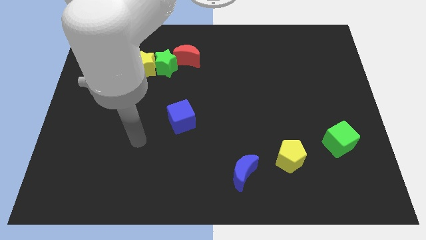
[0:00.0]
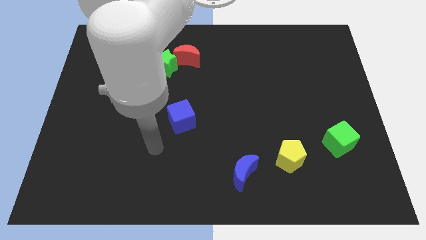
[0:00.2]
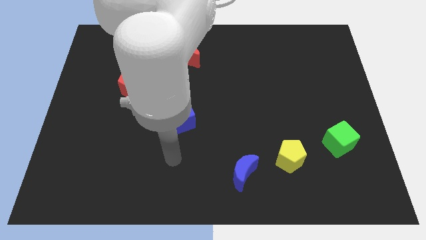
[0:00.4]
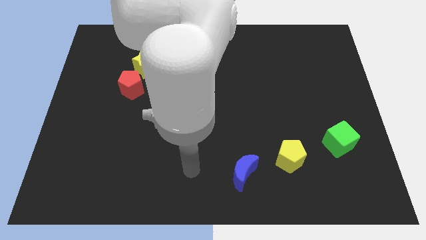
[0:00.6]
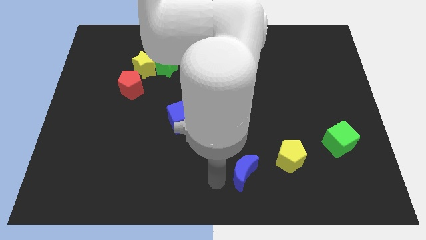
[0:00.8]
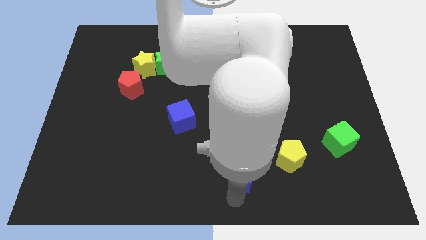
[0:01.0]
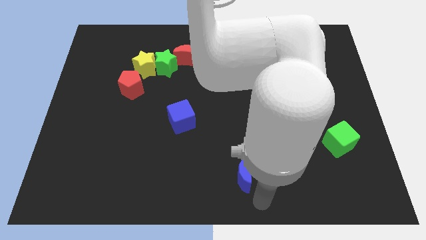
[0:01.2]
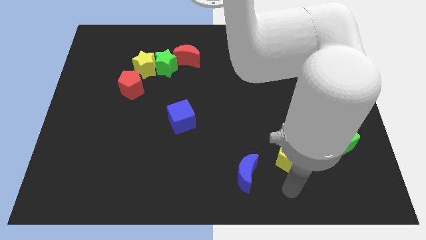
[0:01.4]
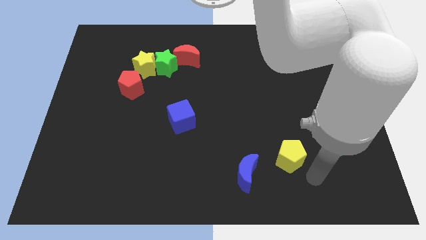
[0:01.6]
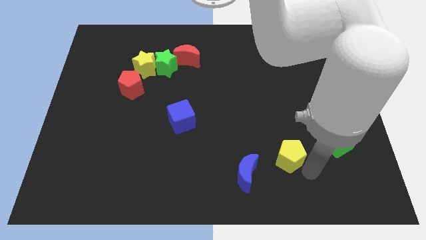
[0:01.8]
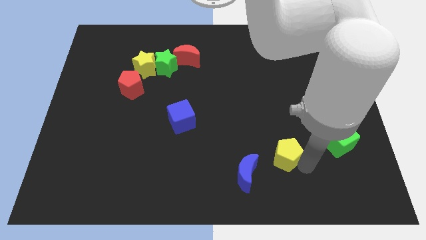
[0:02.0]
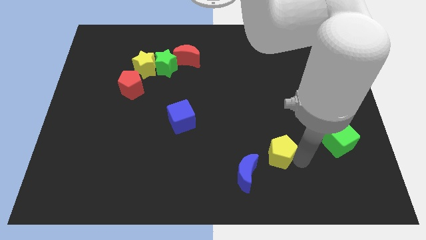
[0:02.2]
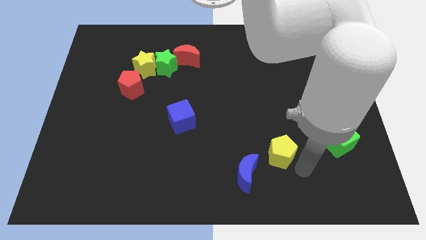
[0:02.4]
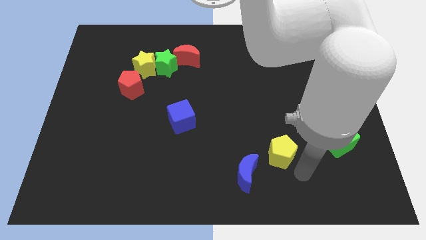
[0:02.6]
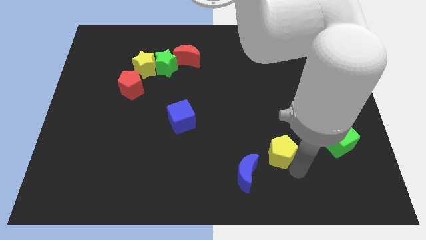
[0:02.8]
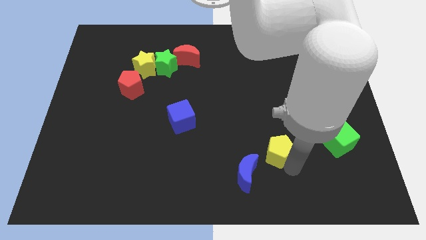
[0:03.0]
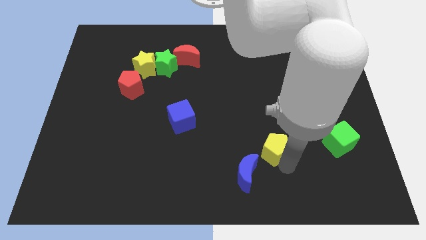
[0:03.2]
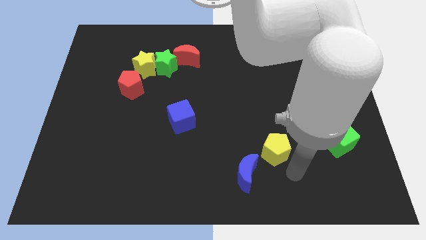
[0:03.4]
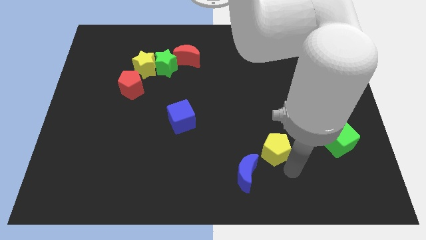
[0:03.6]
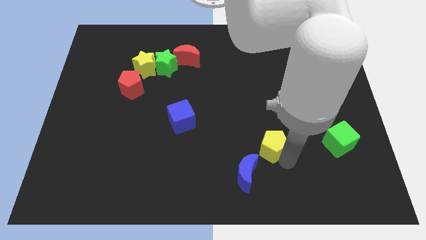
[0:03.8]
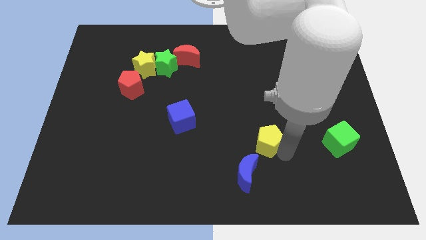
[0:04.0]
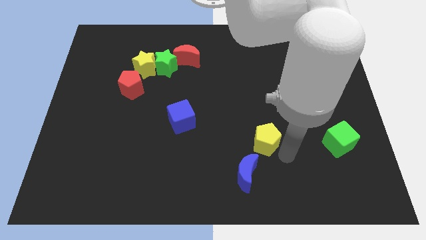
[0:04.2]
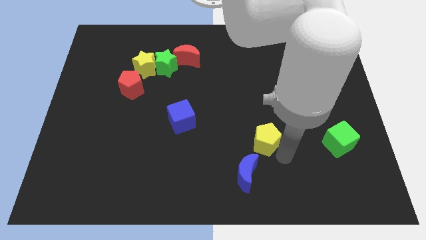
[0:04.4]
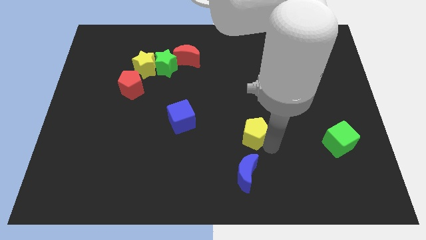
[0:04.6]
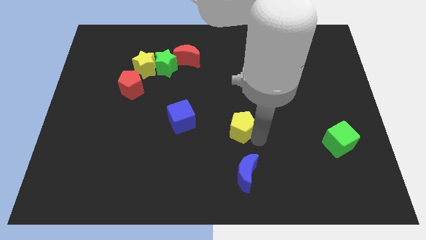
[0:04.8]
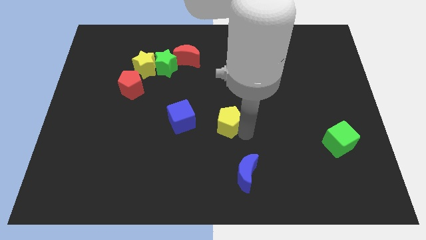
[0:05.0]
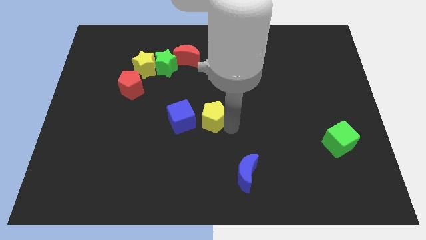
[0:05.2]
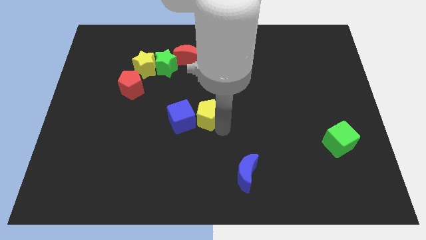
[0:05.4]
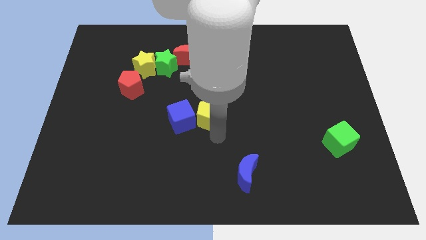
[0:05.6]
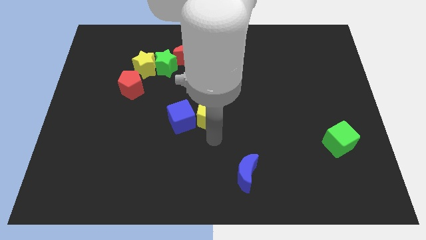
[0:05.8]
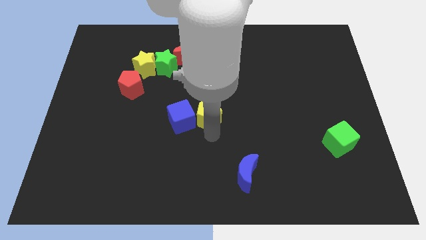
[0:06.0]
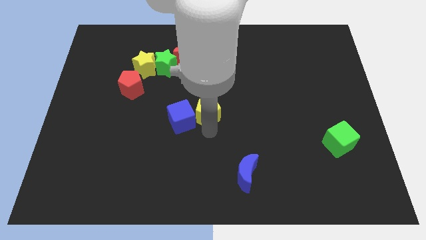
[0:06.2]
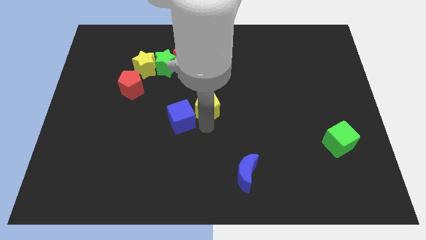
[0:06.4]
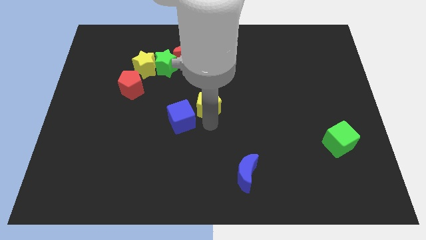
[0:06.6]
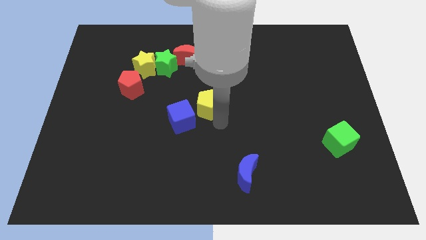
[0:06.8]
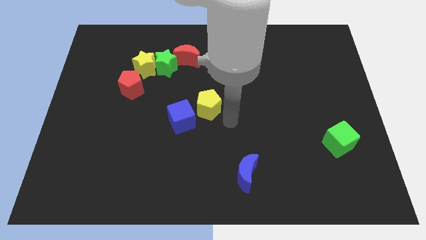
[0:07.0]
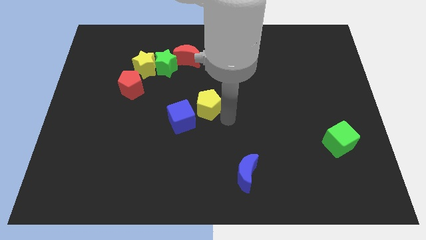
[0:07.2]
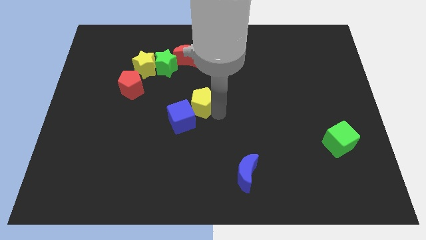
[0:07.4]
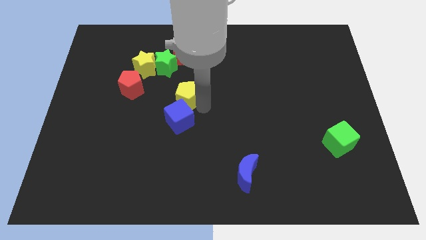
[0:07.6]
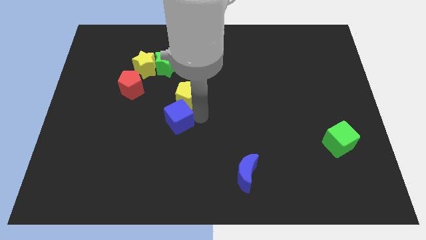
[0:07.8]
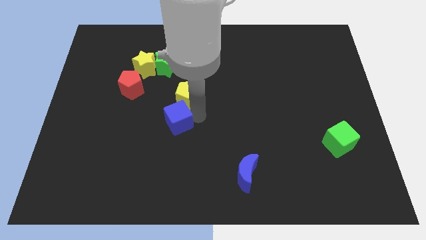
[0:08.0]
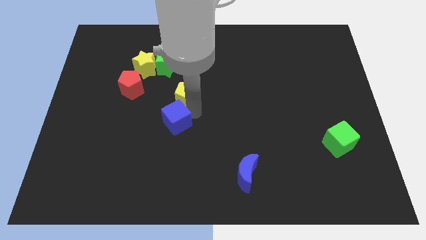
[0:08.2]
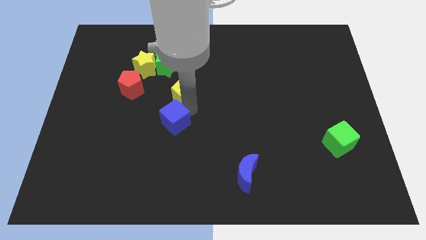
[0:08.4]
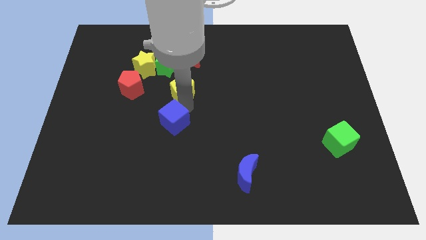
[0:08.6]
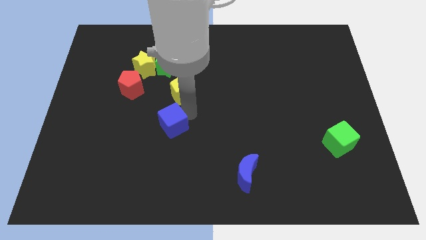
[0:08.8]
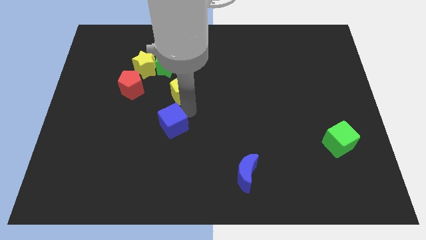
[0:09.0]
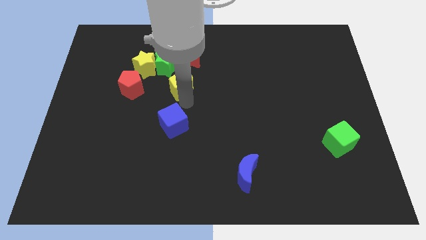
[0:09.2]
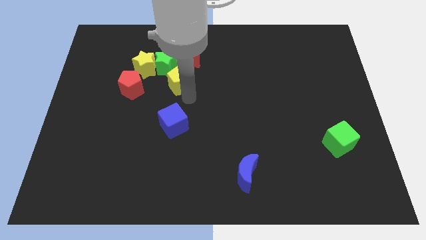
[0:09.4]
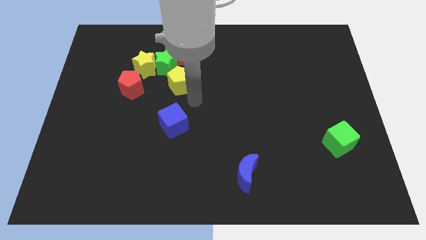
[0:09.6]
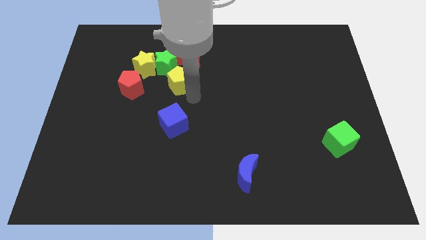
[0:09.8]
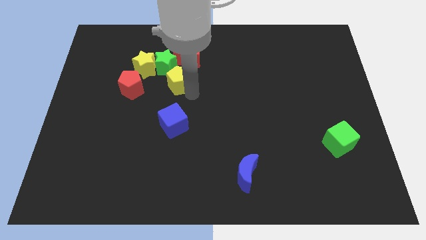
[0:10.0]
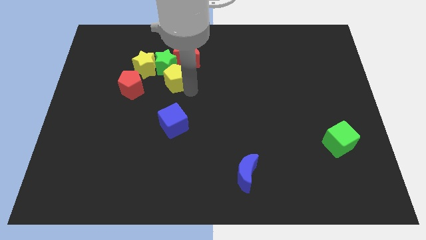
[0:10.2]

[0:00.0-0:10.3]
move the yellow pentagon towards the green star

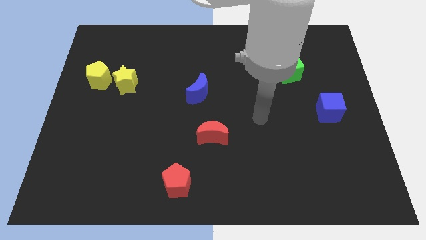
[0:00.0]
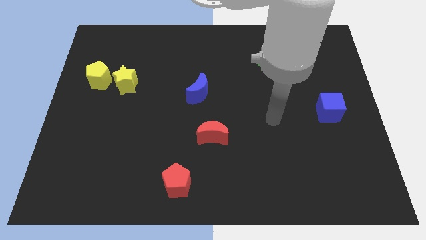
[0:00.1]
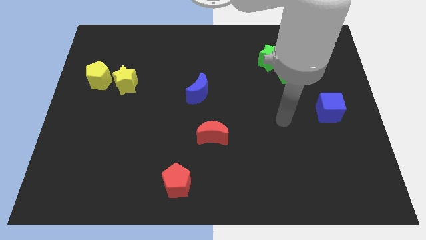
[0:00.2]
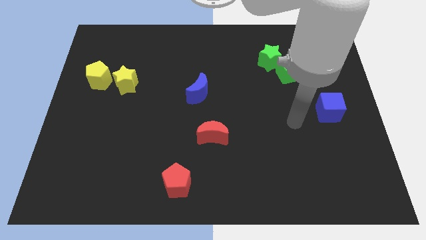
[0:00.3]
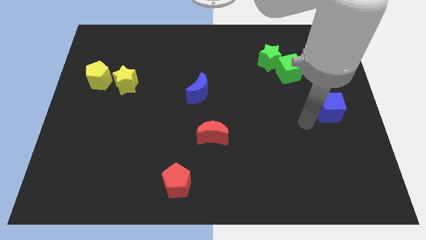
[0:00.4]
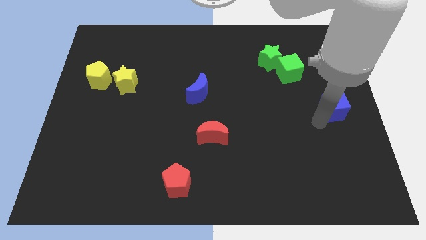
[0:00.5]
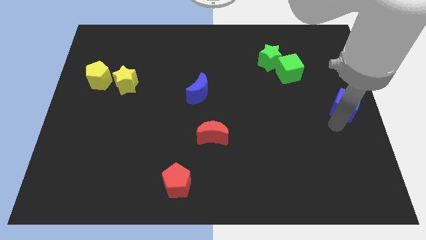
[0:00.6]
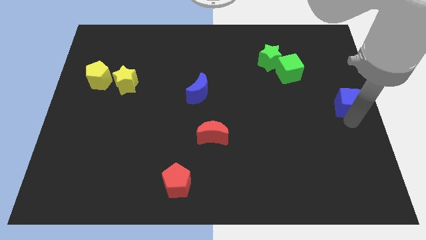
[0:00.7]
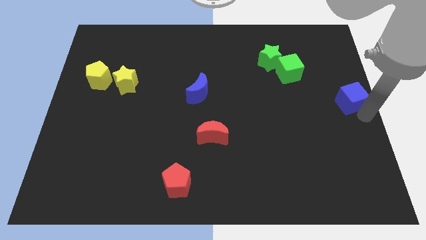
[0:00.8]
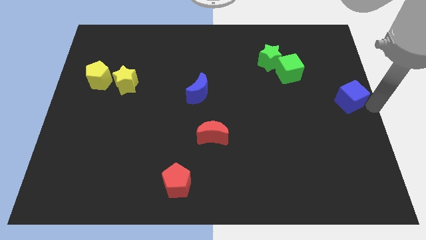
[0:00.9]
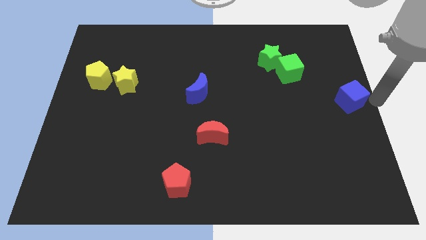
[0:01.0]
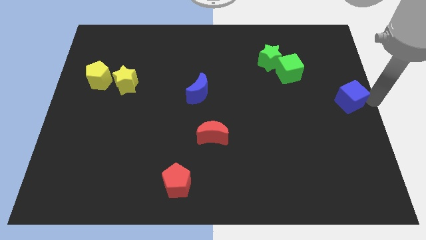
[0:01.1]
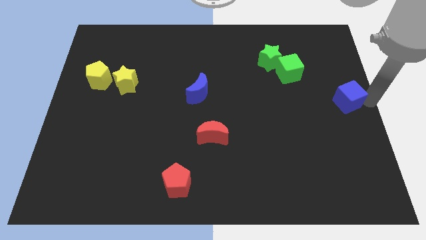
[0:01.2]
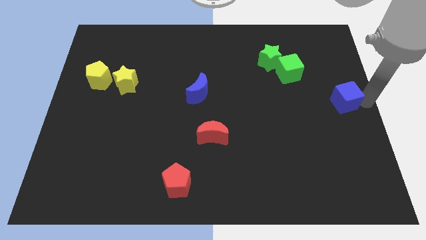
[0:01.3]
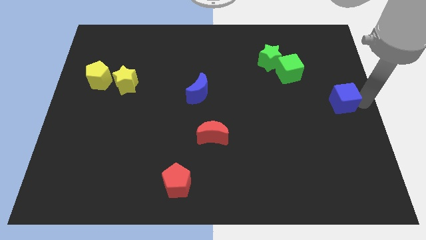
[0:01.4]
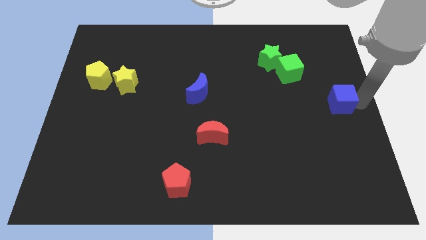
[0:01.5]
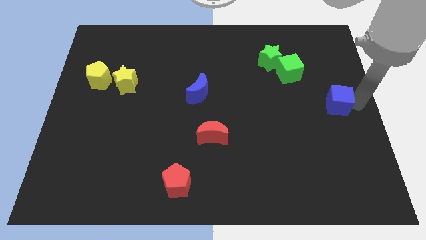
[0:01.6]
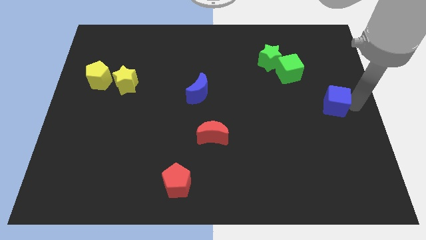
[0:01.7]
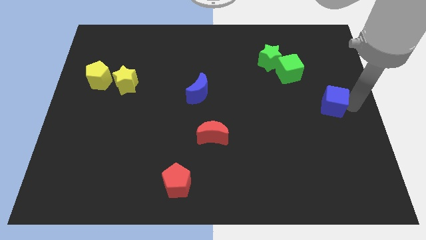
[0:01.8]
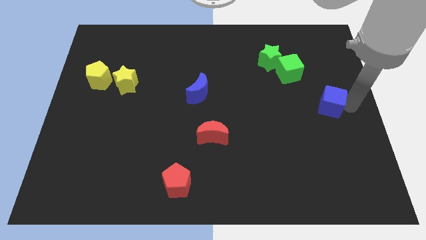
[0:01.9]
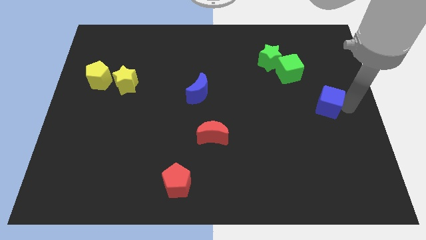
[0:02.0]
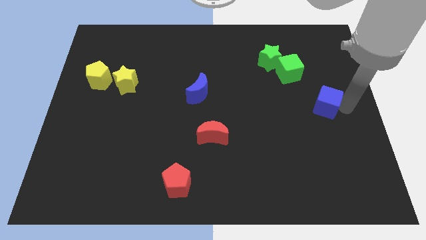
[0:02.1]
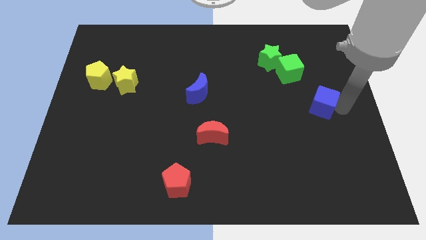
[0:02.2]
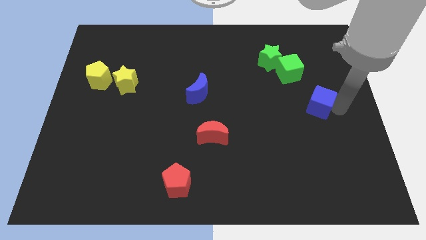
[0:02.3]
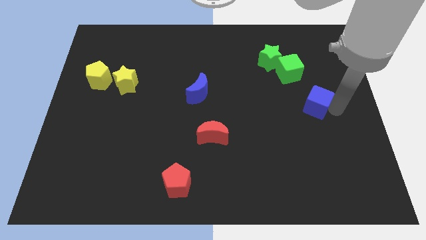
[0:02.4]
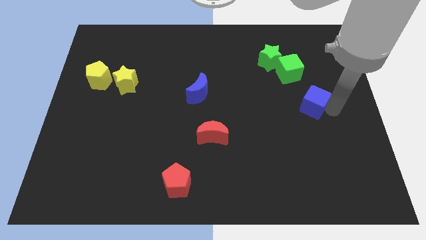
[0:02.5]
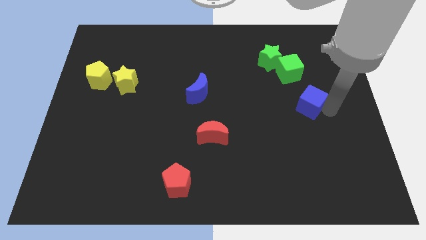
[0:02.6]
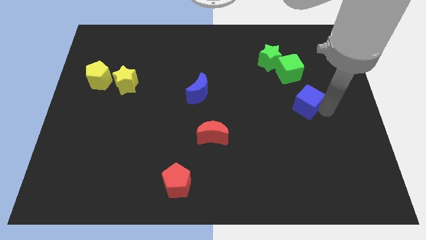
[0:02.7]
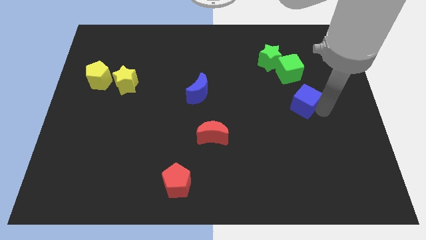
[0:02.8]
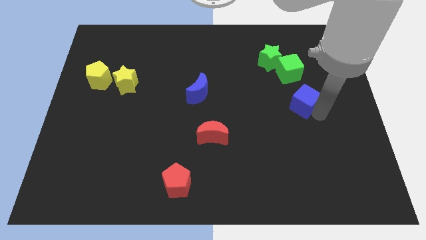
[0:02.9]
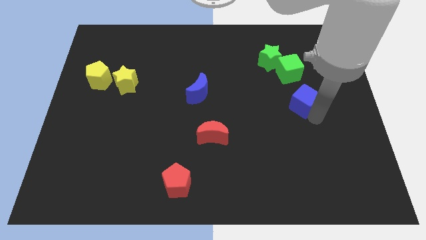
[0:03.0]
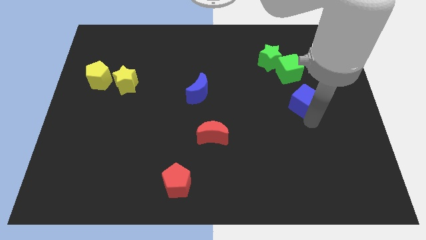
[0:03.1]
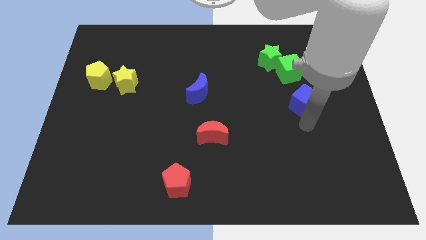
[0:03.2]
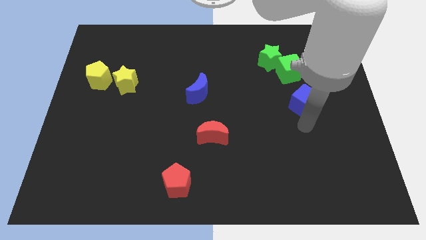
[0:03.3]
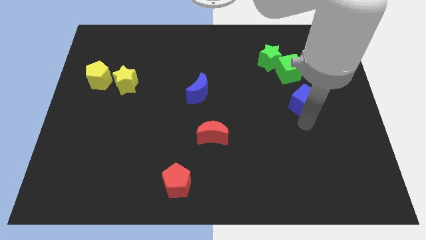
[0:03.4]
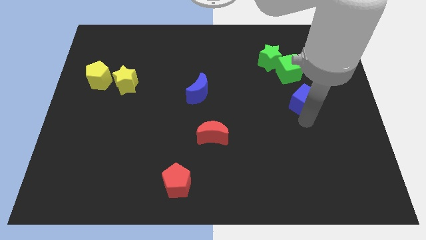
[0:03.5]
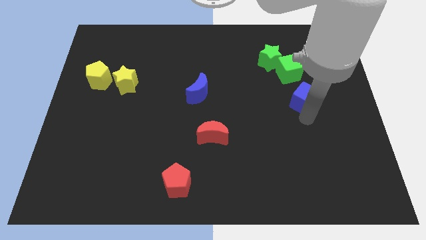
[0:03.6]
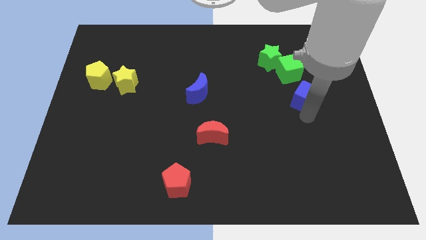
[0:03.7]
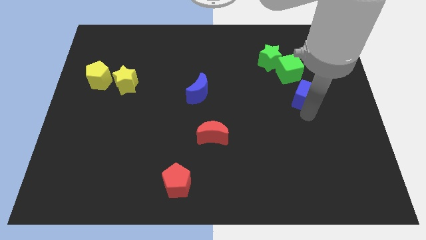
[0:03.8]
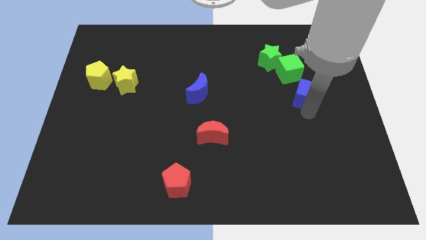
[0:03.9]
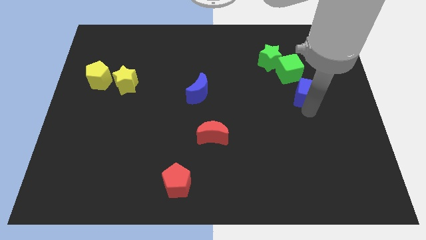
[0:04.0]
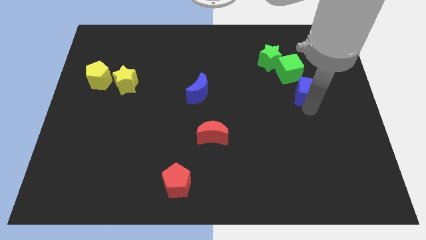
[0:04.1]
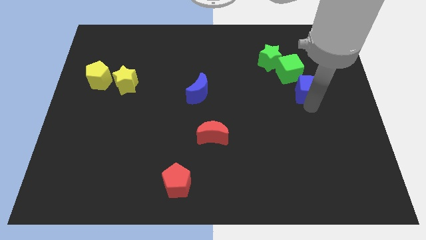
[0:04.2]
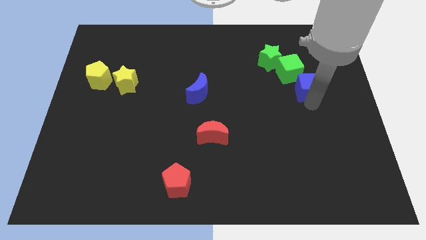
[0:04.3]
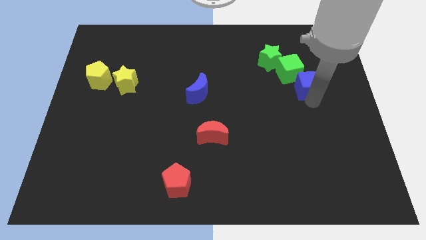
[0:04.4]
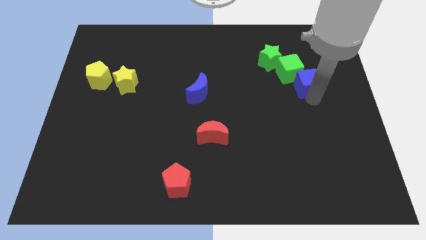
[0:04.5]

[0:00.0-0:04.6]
put the blue cube close to the green cube
